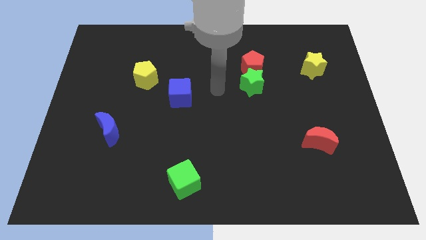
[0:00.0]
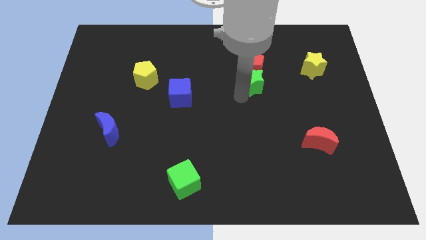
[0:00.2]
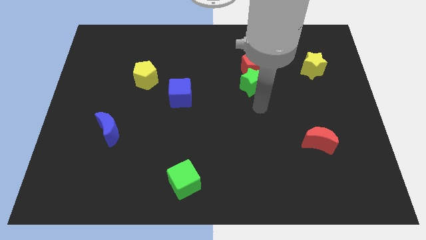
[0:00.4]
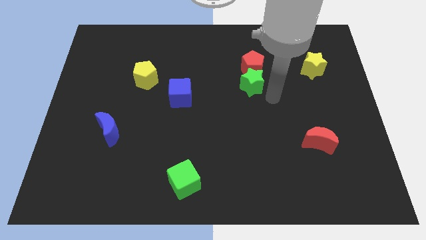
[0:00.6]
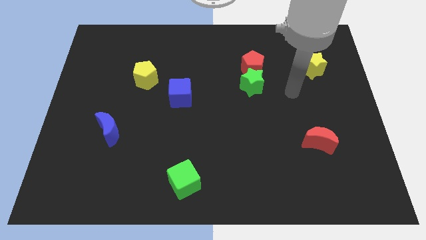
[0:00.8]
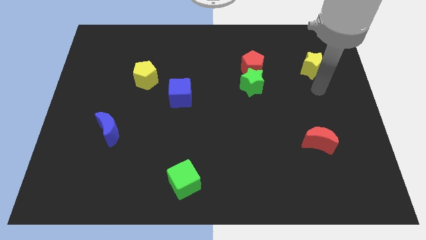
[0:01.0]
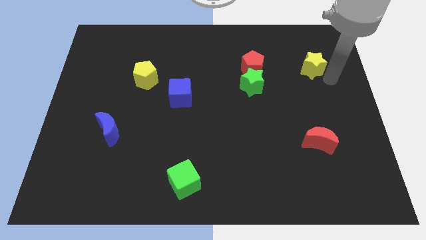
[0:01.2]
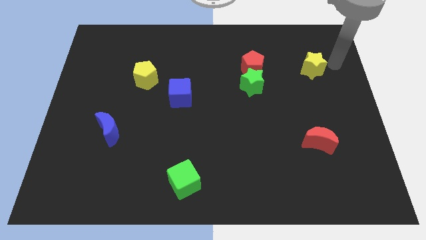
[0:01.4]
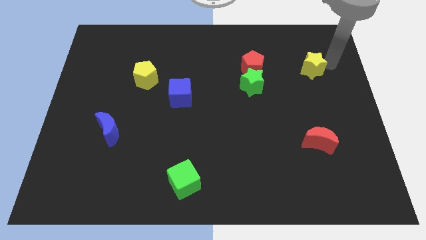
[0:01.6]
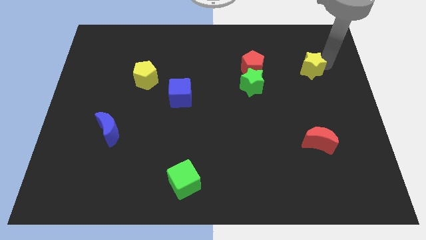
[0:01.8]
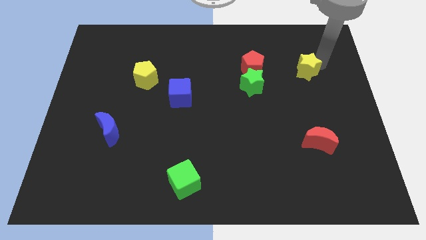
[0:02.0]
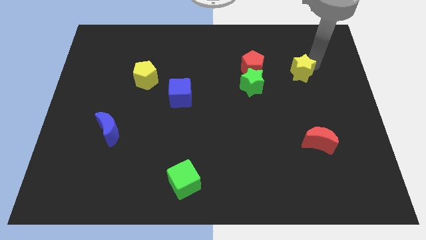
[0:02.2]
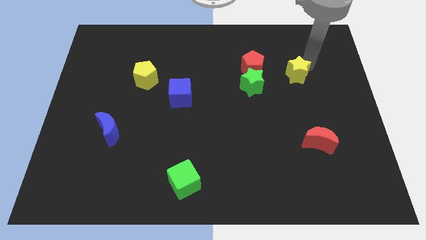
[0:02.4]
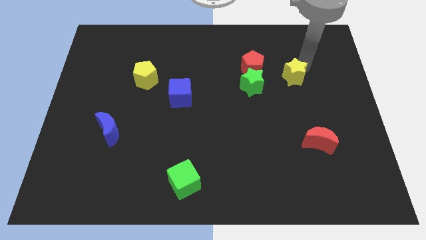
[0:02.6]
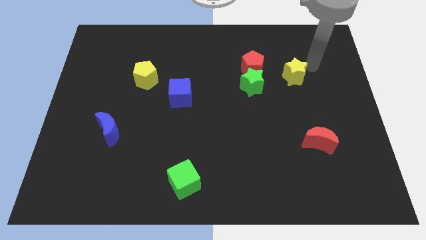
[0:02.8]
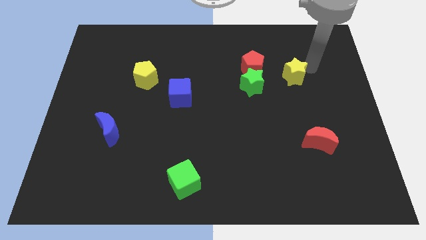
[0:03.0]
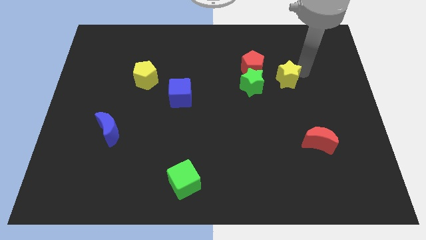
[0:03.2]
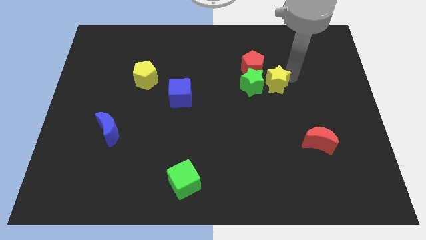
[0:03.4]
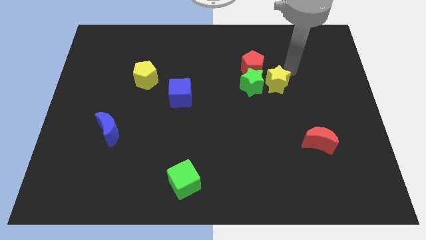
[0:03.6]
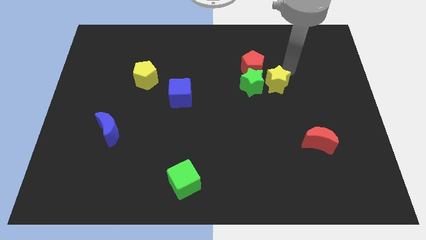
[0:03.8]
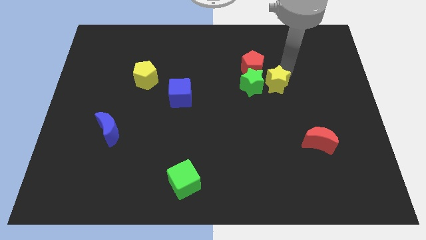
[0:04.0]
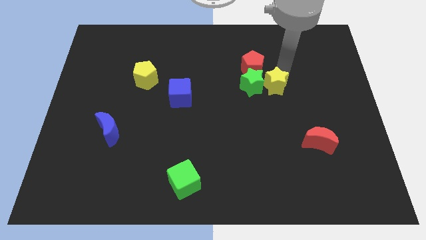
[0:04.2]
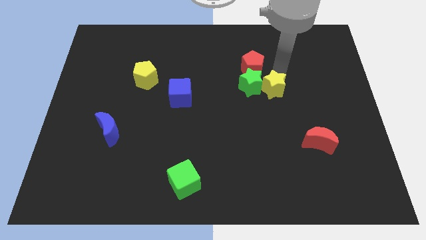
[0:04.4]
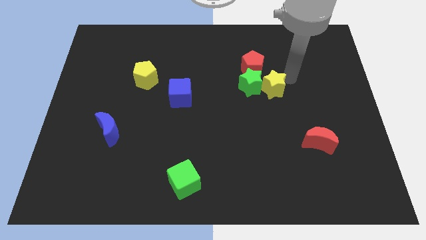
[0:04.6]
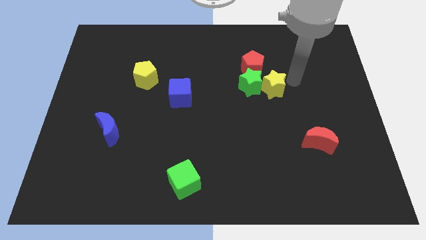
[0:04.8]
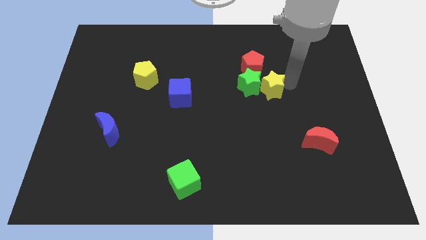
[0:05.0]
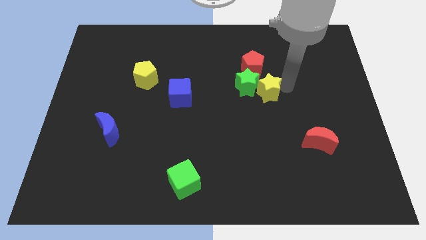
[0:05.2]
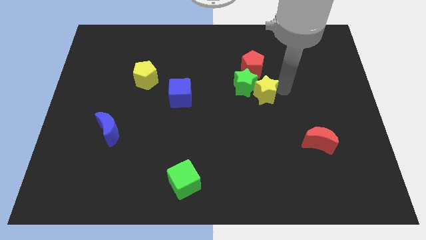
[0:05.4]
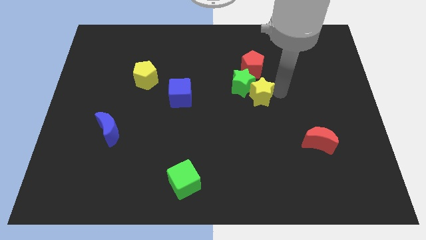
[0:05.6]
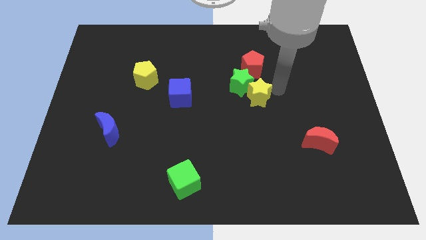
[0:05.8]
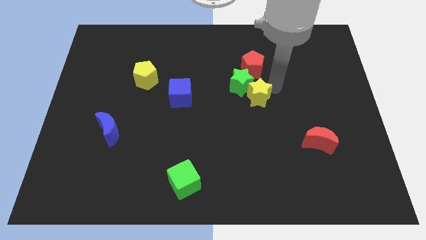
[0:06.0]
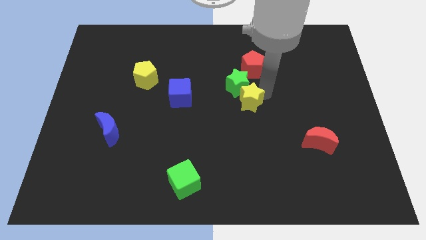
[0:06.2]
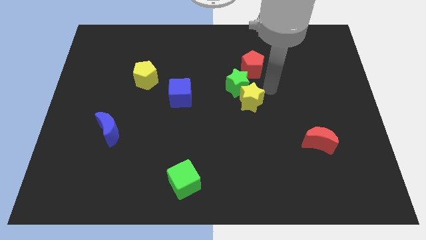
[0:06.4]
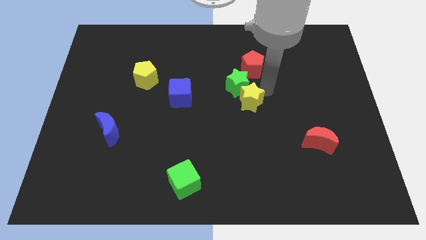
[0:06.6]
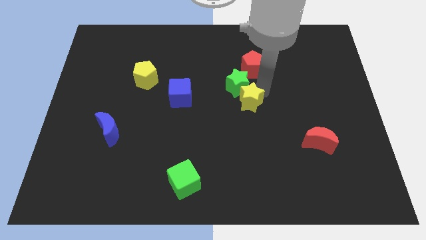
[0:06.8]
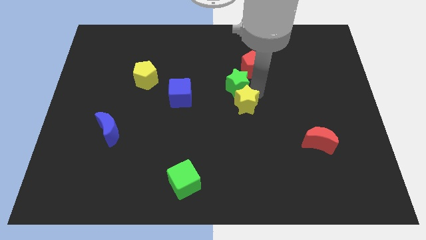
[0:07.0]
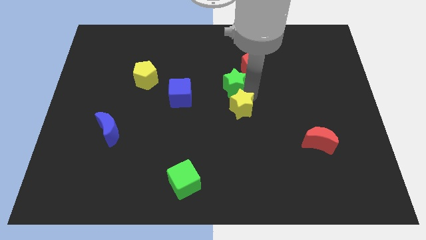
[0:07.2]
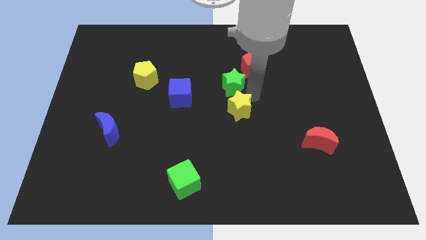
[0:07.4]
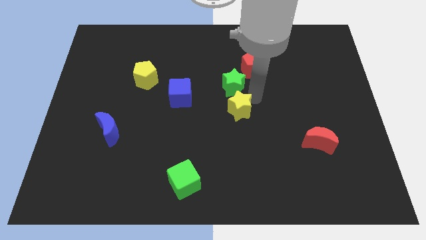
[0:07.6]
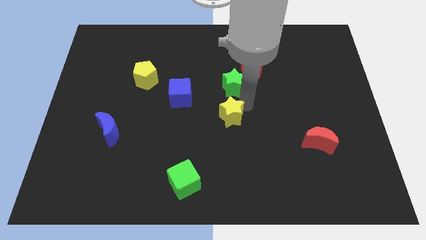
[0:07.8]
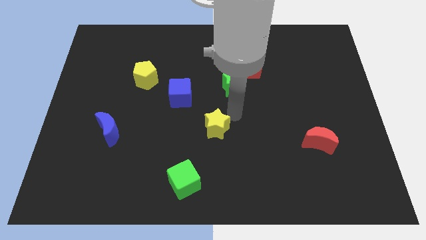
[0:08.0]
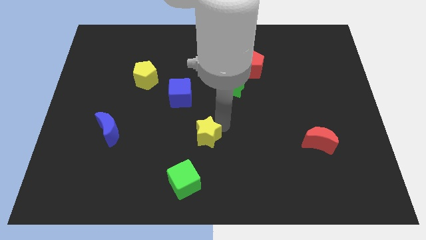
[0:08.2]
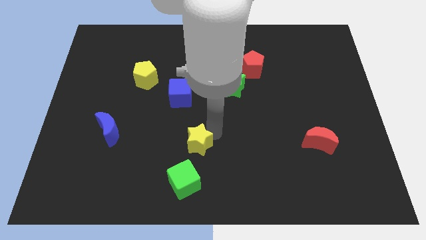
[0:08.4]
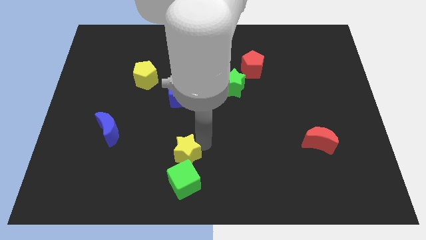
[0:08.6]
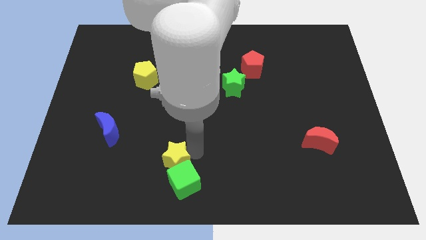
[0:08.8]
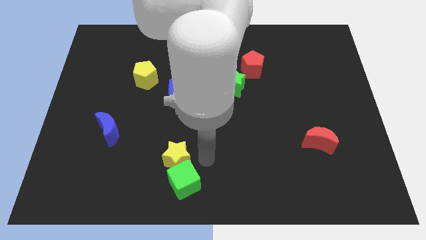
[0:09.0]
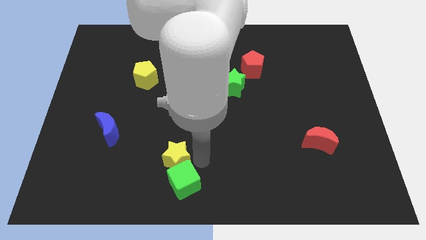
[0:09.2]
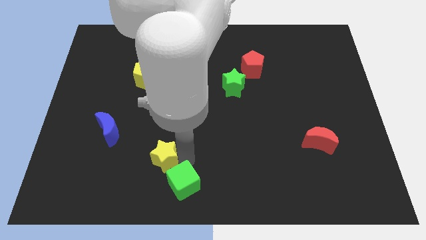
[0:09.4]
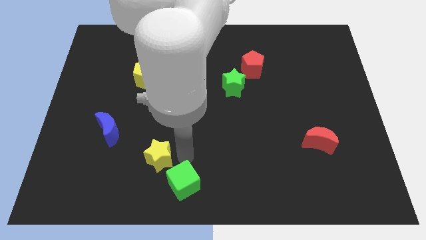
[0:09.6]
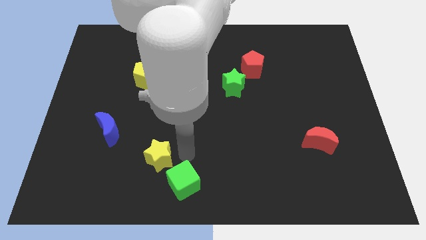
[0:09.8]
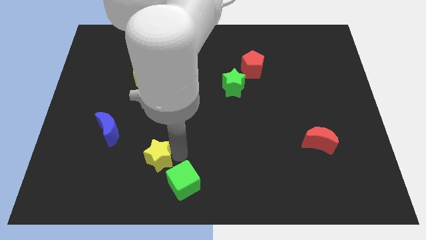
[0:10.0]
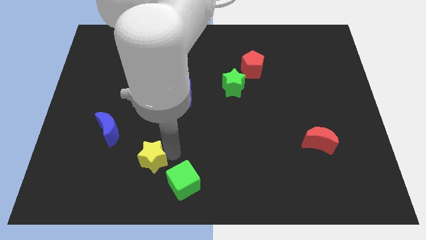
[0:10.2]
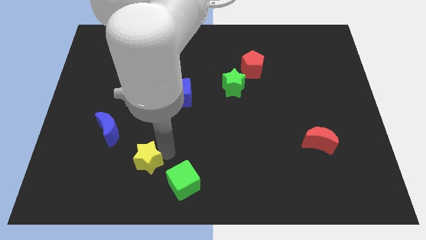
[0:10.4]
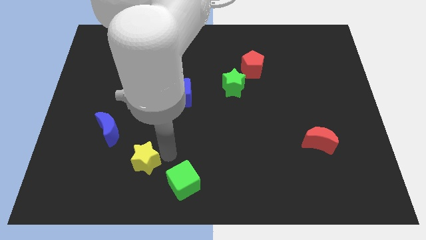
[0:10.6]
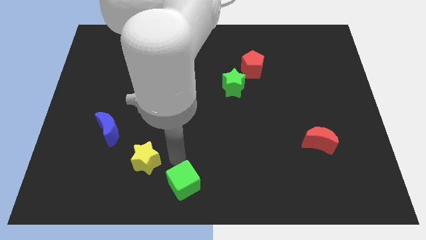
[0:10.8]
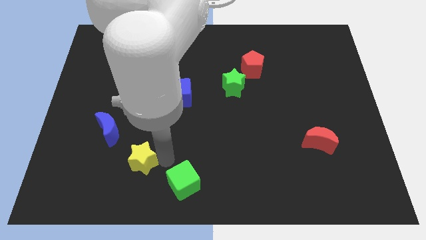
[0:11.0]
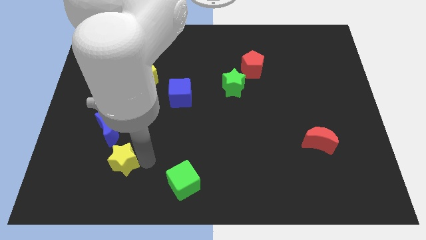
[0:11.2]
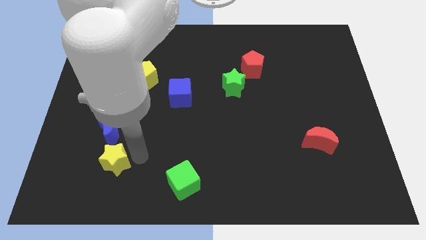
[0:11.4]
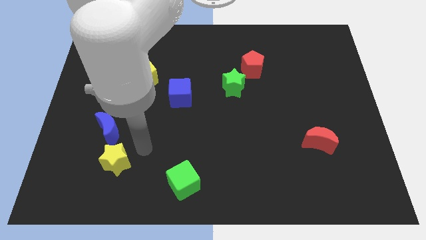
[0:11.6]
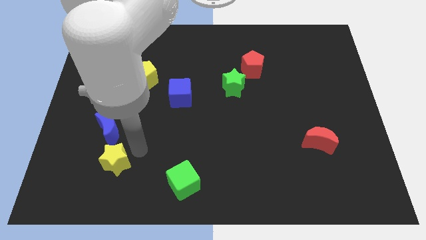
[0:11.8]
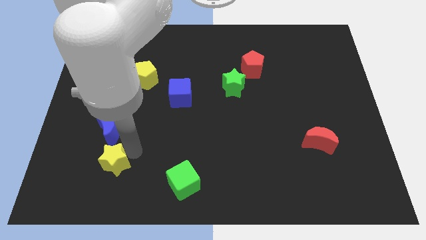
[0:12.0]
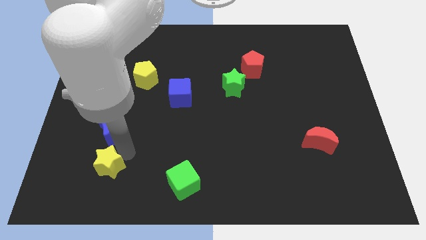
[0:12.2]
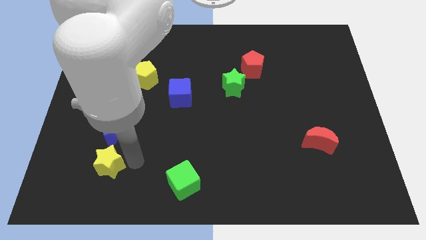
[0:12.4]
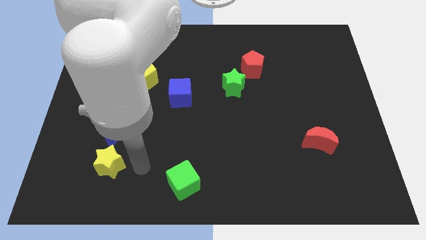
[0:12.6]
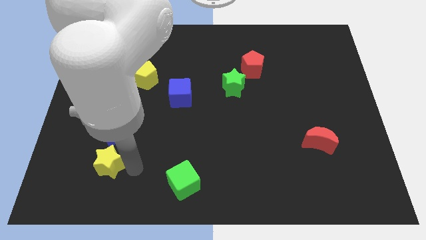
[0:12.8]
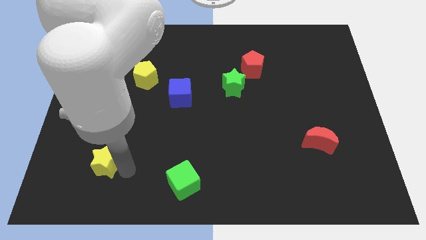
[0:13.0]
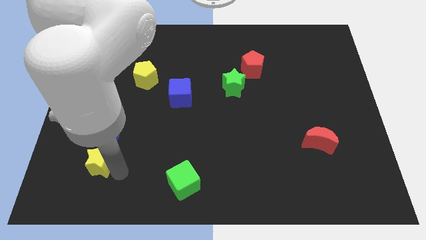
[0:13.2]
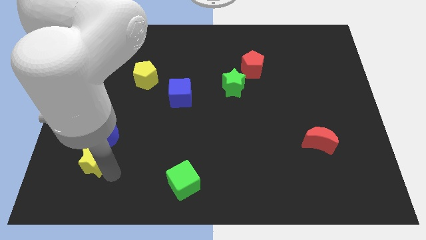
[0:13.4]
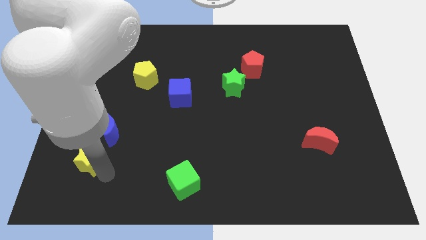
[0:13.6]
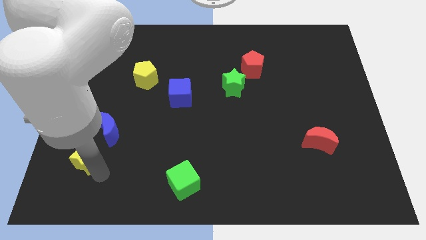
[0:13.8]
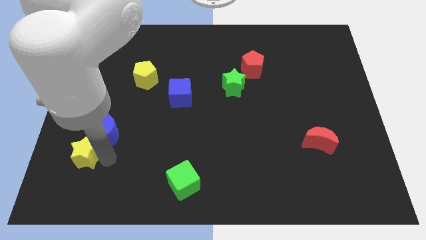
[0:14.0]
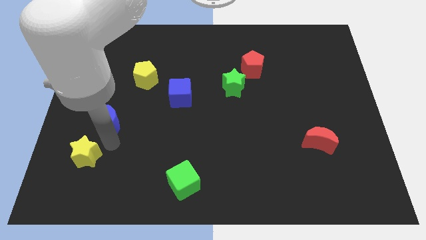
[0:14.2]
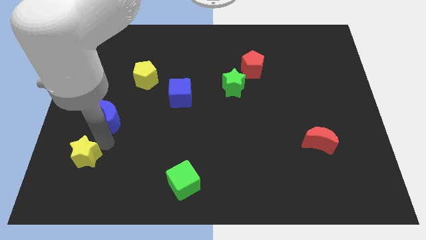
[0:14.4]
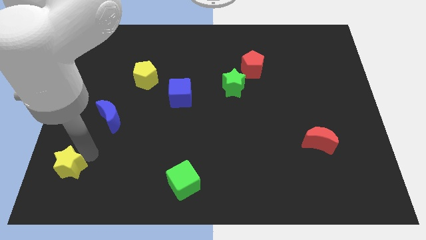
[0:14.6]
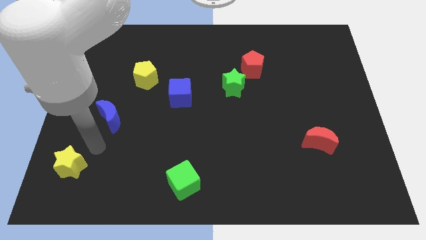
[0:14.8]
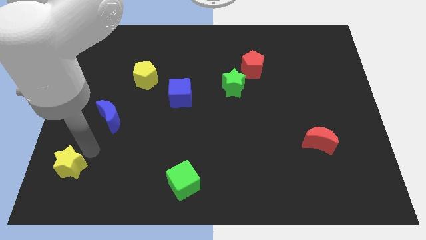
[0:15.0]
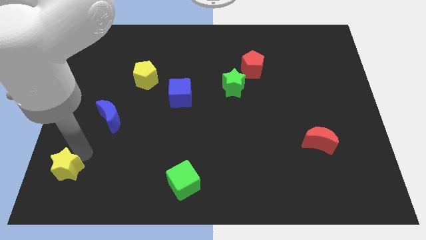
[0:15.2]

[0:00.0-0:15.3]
slide the yellow star to the bottom left of the board
